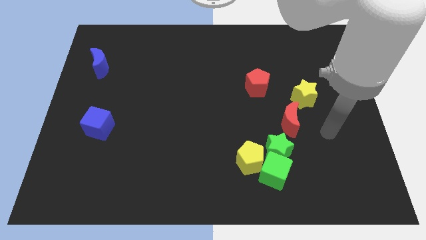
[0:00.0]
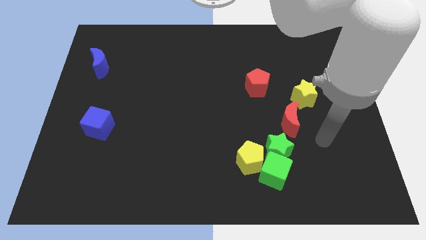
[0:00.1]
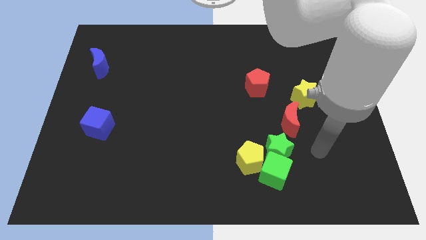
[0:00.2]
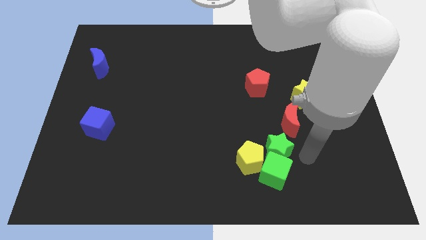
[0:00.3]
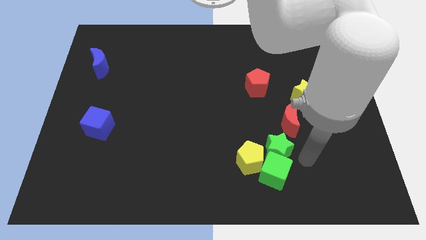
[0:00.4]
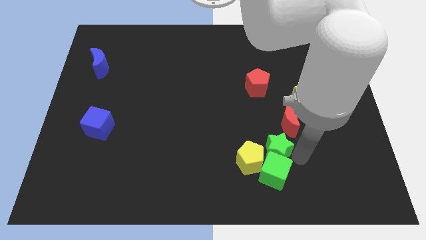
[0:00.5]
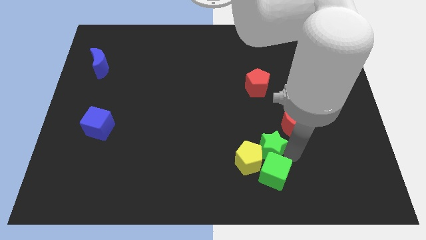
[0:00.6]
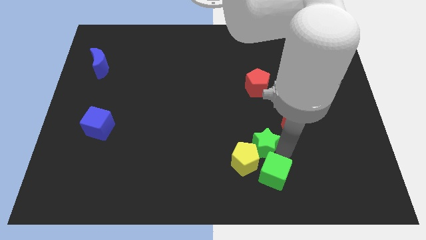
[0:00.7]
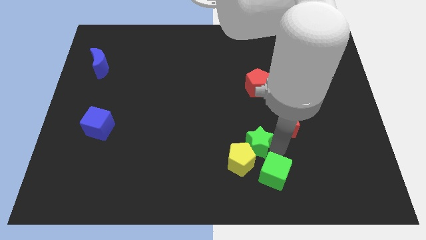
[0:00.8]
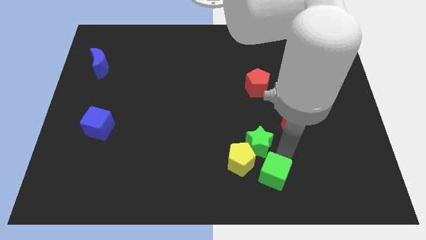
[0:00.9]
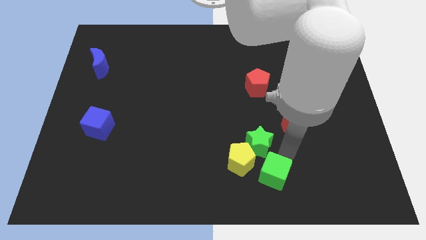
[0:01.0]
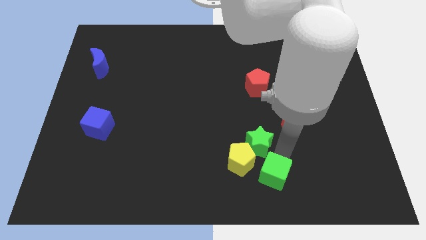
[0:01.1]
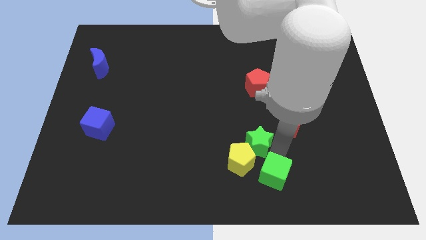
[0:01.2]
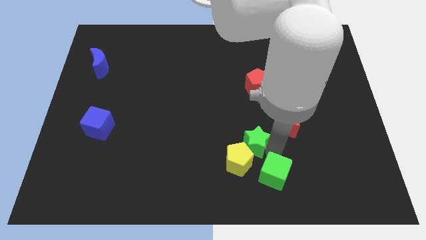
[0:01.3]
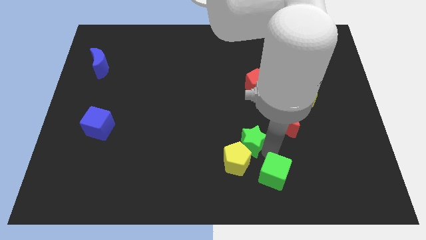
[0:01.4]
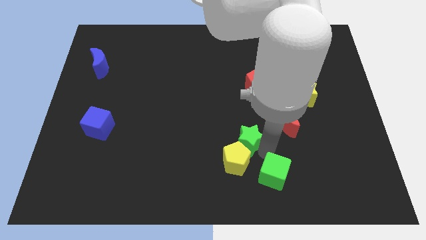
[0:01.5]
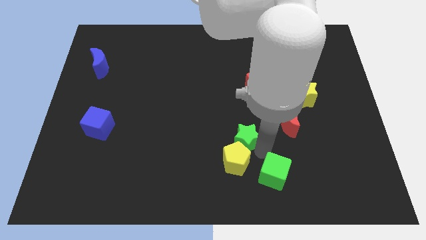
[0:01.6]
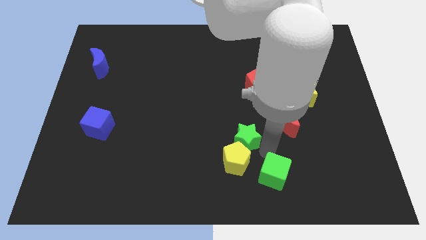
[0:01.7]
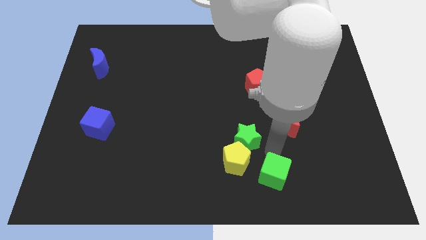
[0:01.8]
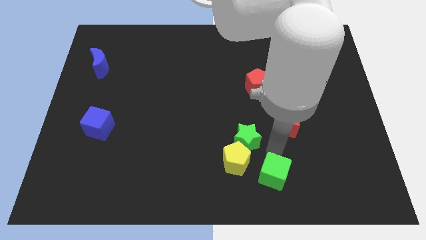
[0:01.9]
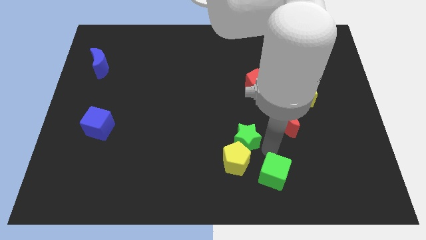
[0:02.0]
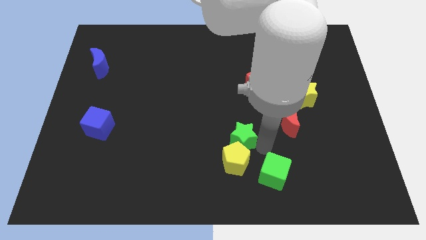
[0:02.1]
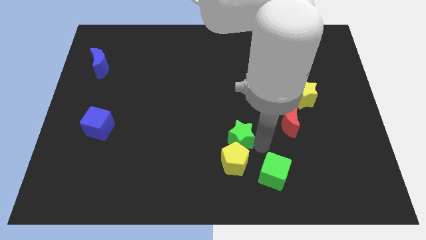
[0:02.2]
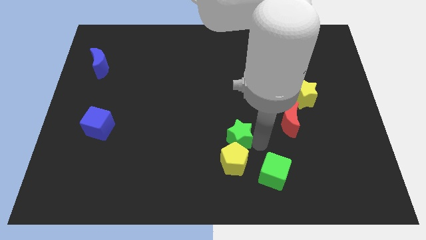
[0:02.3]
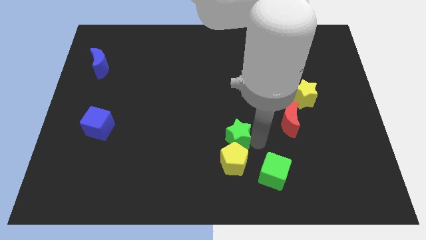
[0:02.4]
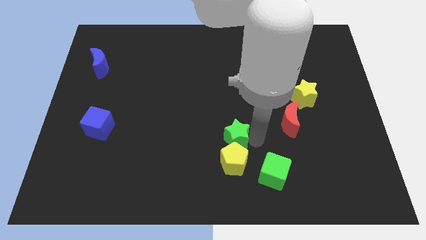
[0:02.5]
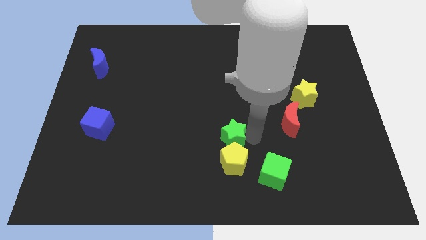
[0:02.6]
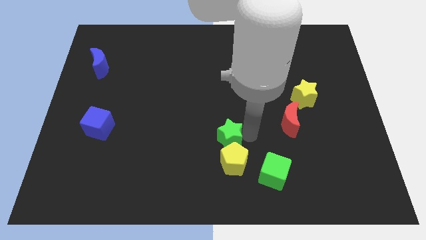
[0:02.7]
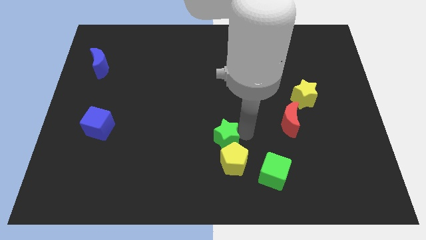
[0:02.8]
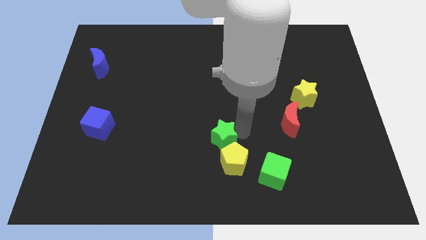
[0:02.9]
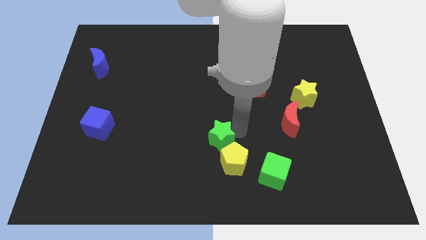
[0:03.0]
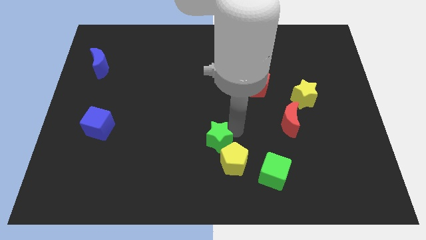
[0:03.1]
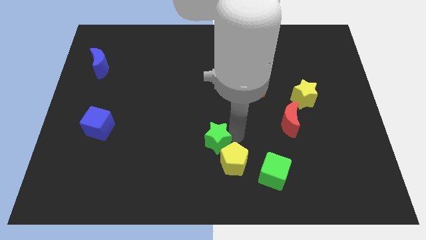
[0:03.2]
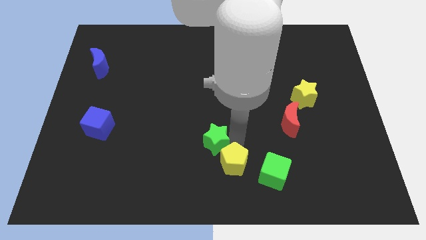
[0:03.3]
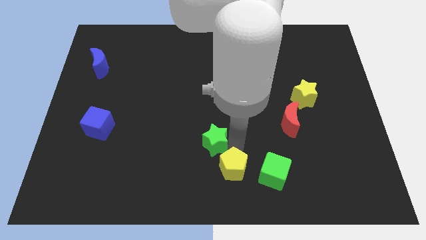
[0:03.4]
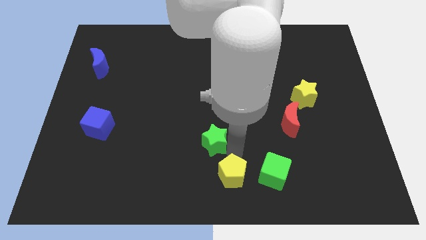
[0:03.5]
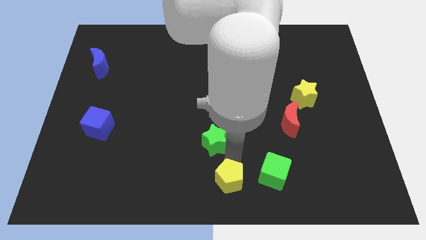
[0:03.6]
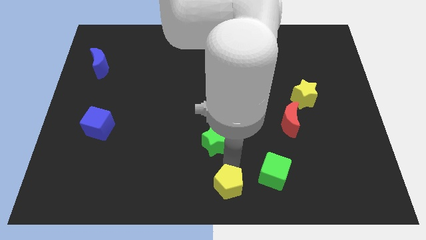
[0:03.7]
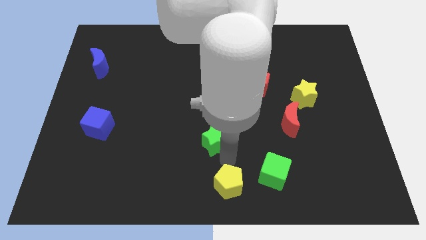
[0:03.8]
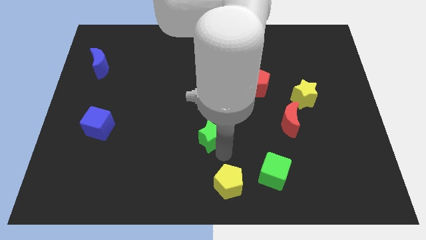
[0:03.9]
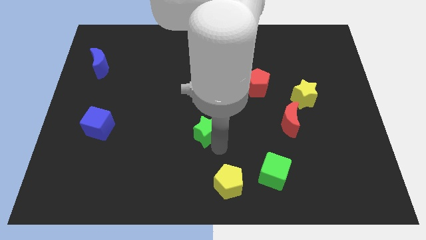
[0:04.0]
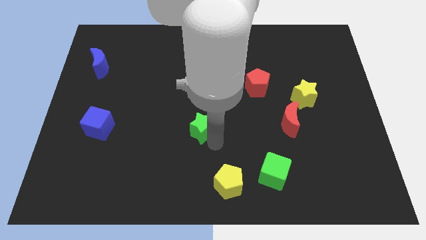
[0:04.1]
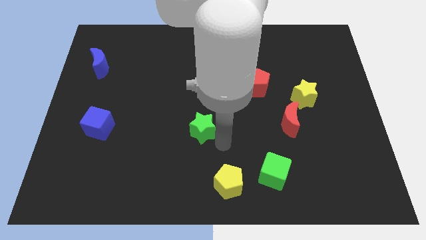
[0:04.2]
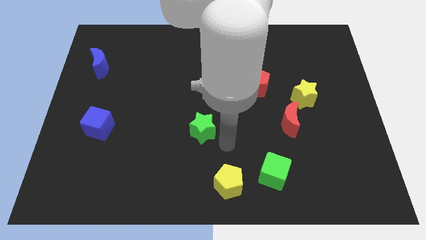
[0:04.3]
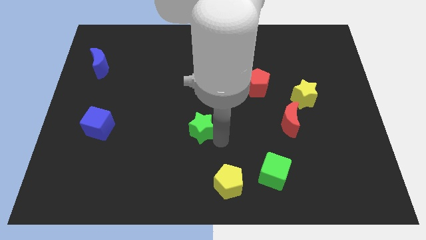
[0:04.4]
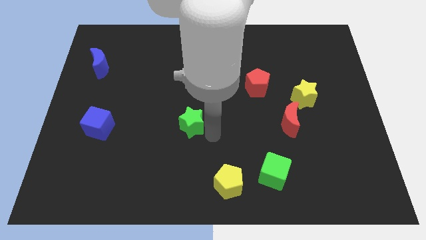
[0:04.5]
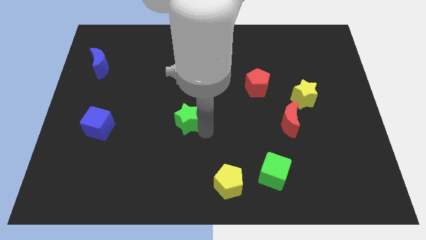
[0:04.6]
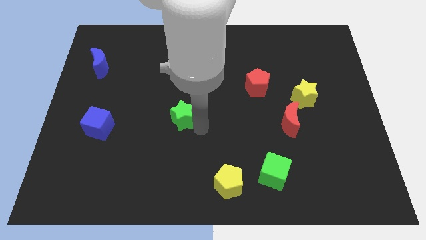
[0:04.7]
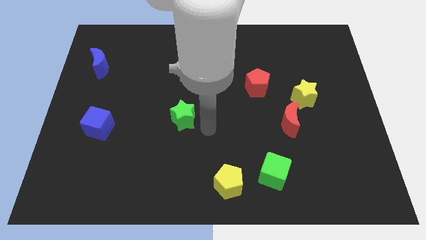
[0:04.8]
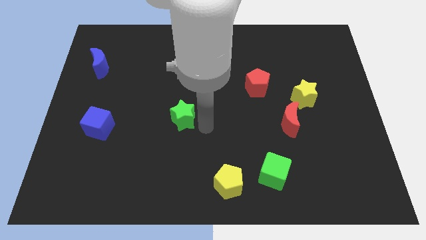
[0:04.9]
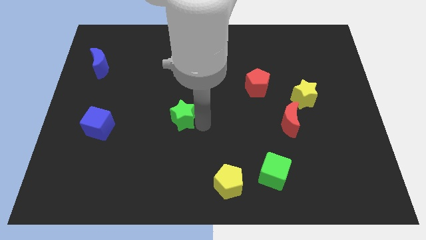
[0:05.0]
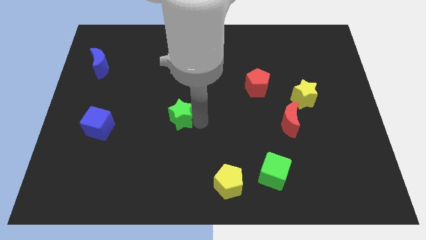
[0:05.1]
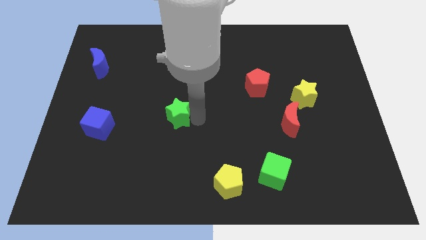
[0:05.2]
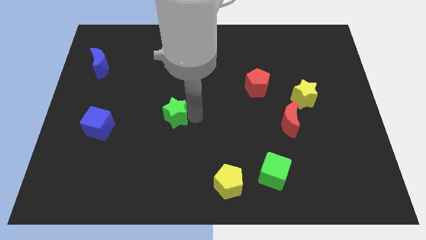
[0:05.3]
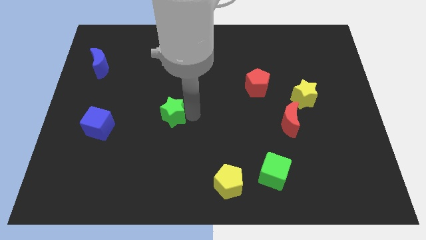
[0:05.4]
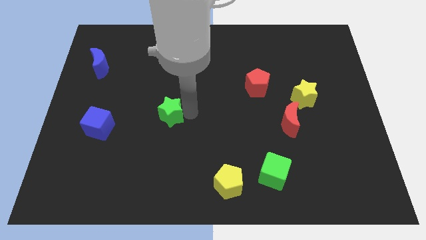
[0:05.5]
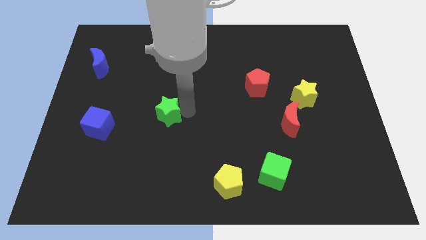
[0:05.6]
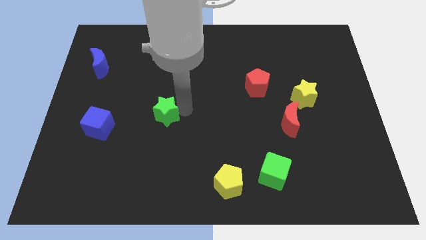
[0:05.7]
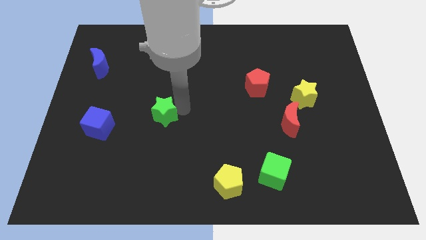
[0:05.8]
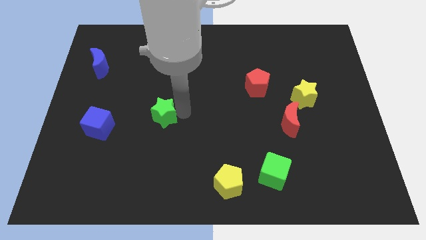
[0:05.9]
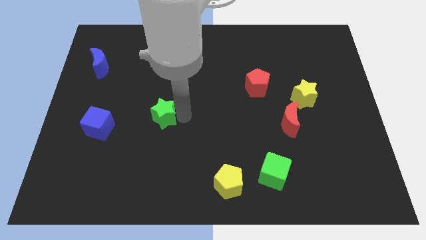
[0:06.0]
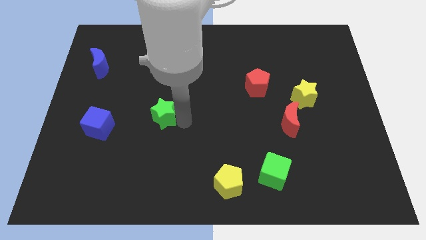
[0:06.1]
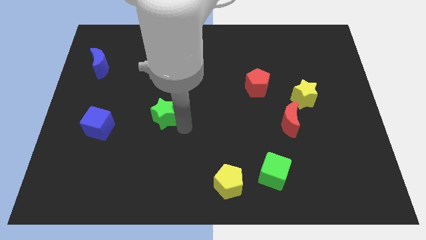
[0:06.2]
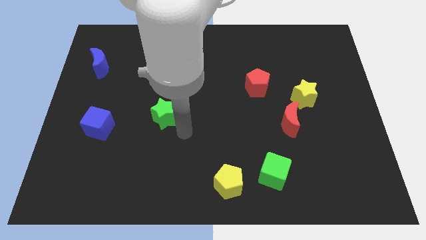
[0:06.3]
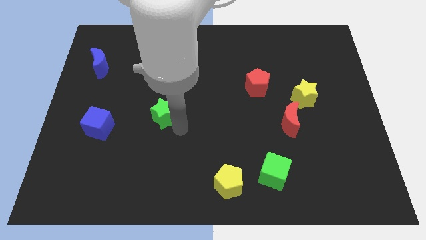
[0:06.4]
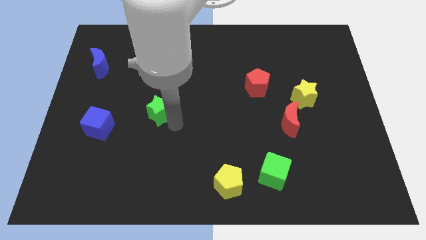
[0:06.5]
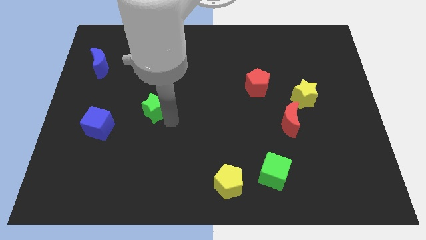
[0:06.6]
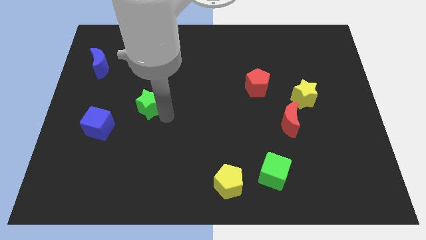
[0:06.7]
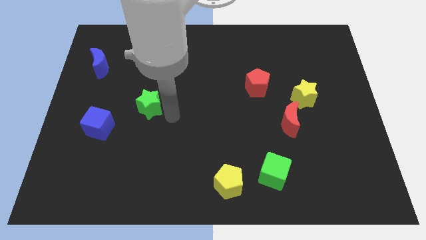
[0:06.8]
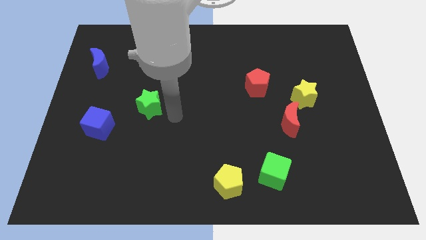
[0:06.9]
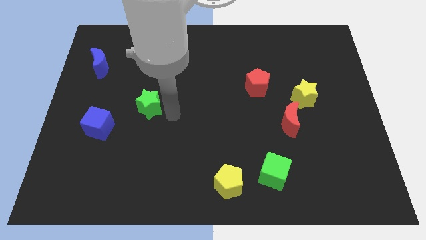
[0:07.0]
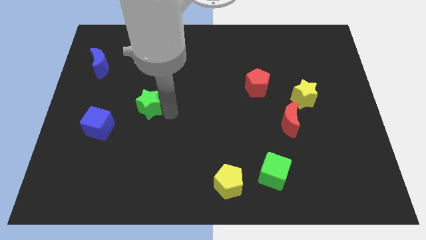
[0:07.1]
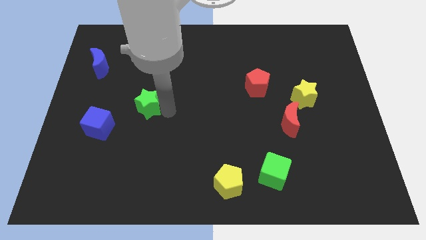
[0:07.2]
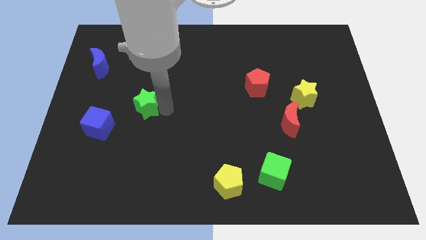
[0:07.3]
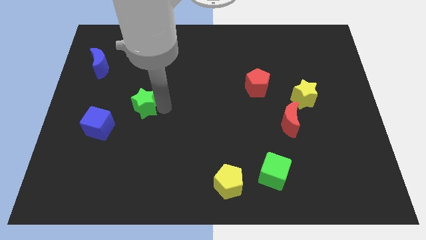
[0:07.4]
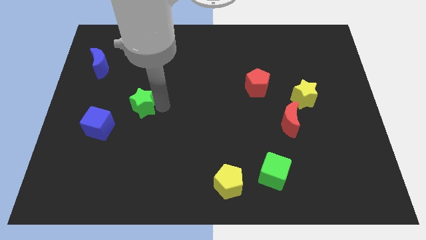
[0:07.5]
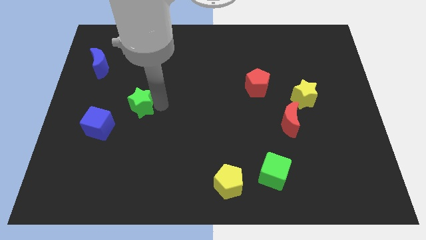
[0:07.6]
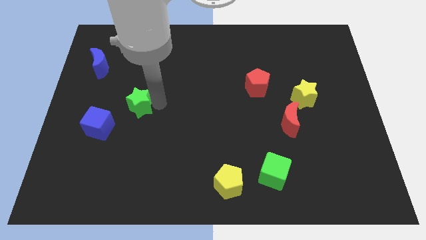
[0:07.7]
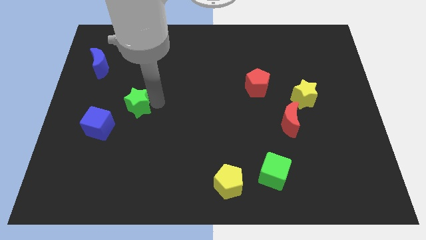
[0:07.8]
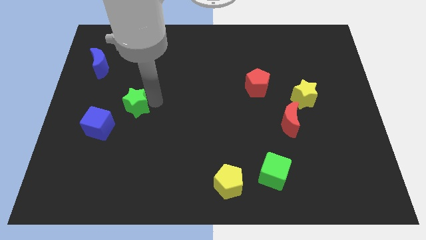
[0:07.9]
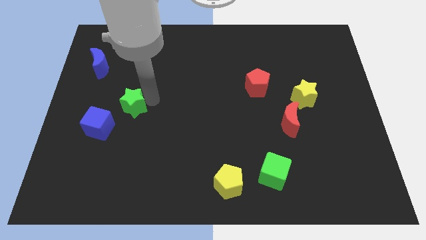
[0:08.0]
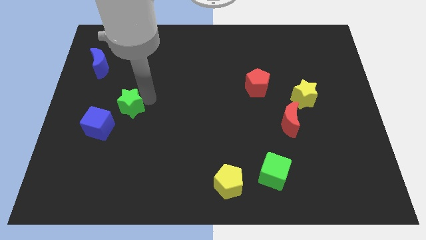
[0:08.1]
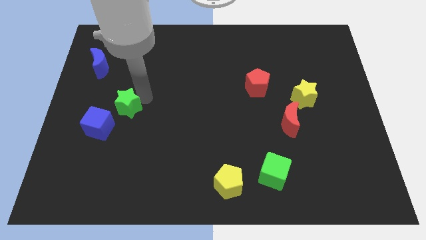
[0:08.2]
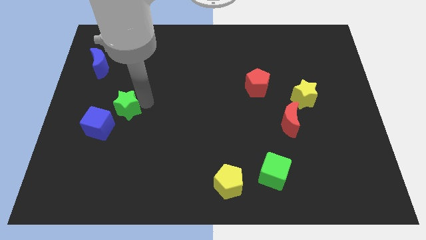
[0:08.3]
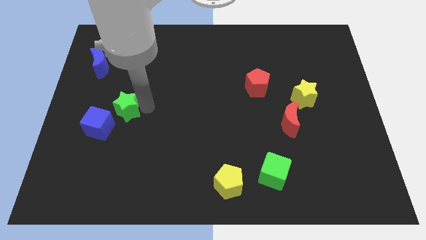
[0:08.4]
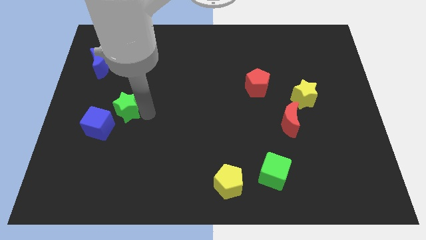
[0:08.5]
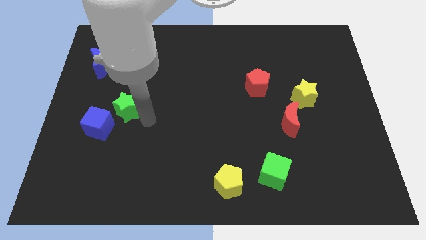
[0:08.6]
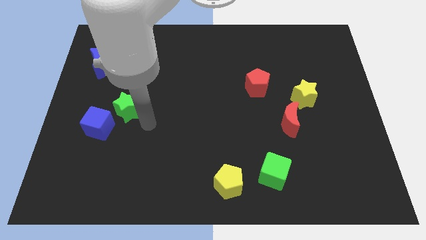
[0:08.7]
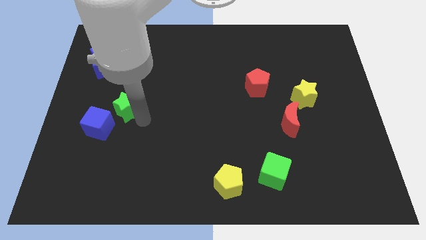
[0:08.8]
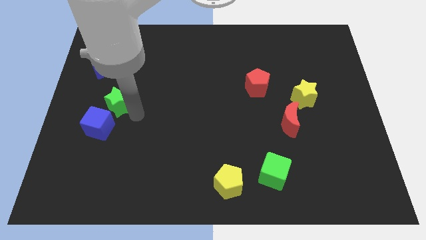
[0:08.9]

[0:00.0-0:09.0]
push the green star to the top side of the blue cube
